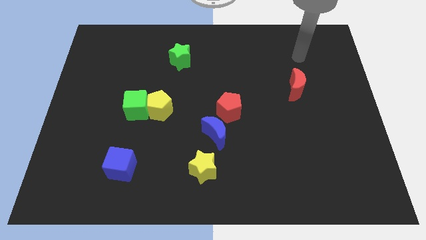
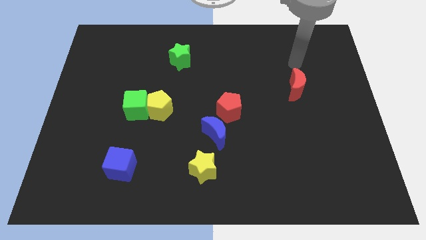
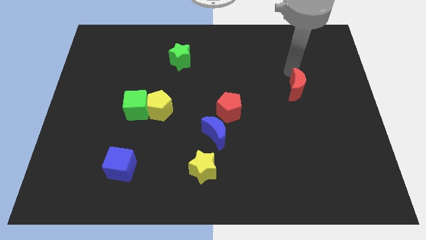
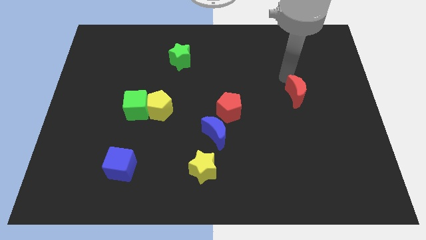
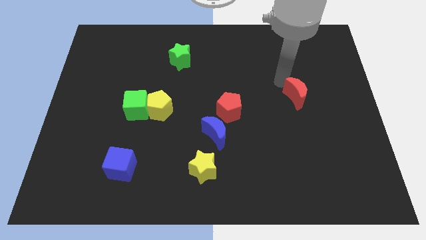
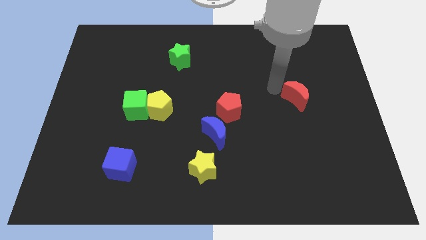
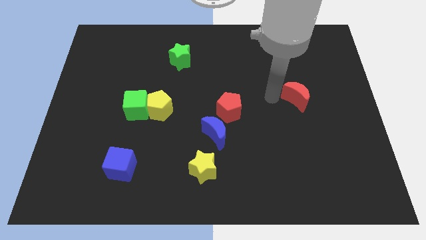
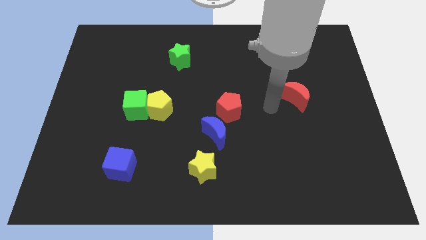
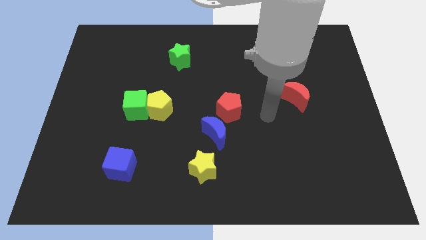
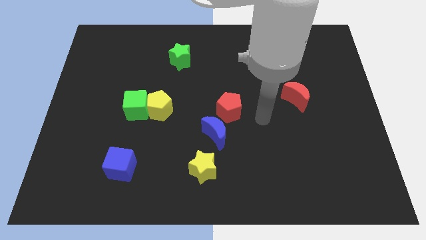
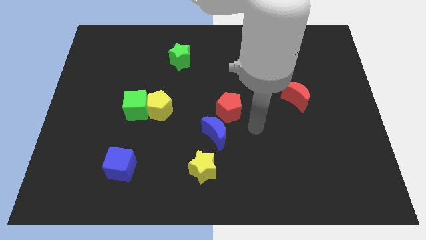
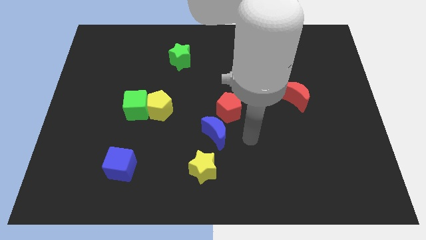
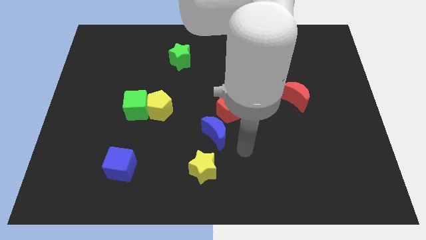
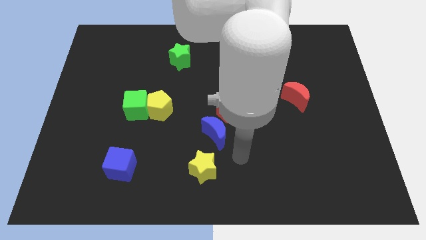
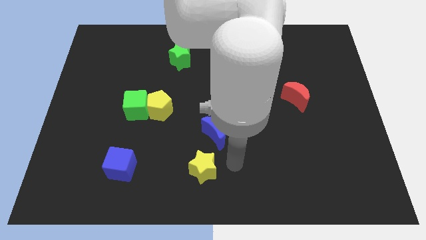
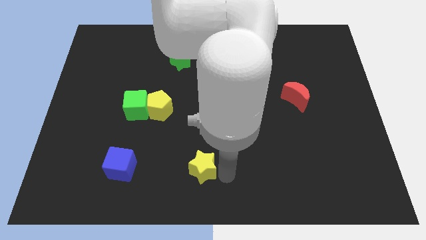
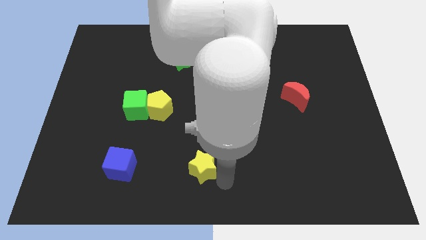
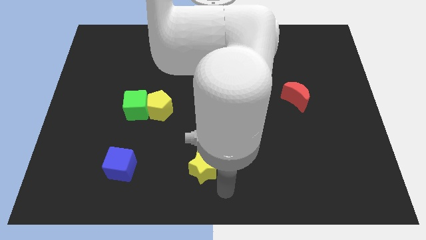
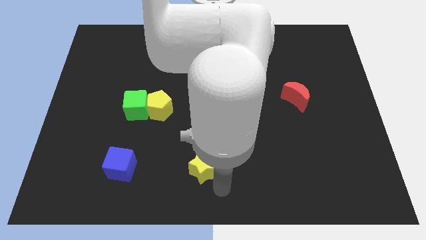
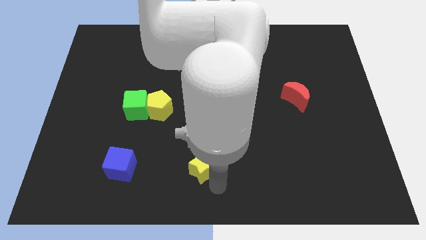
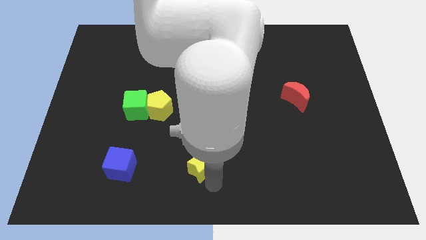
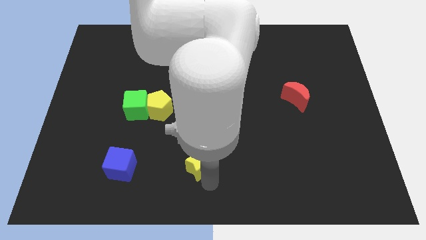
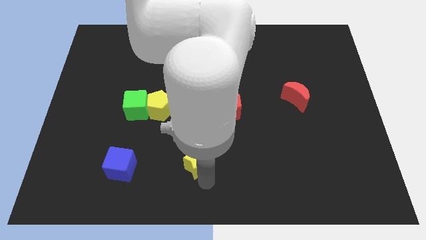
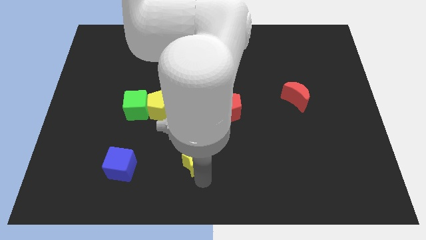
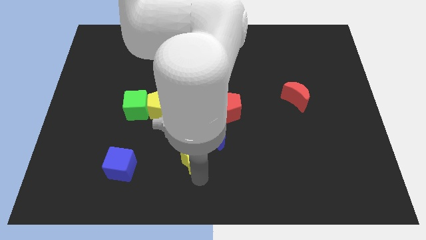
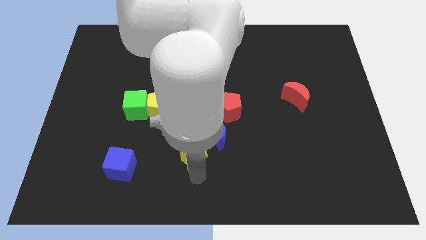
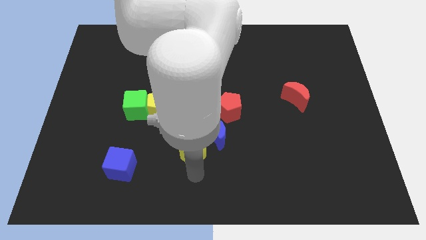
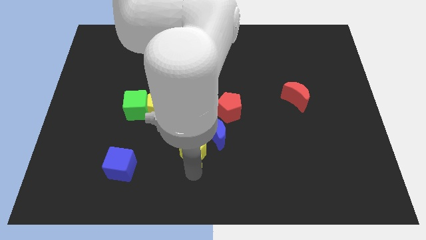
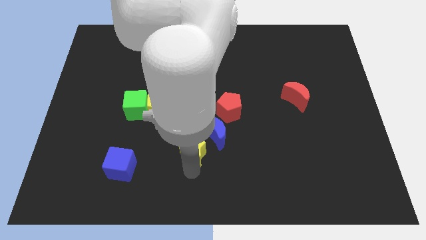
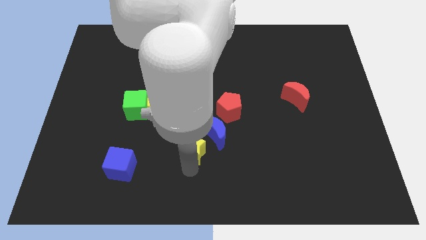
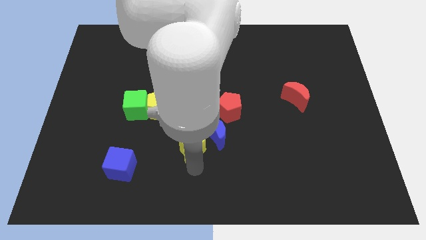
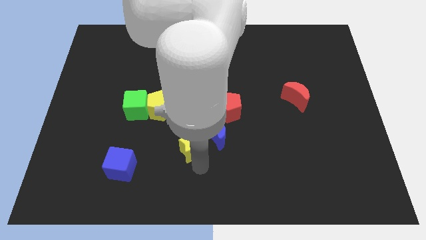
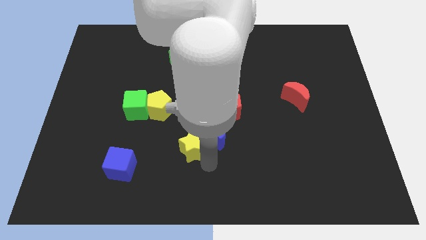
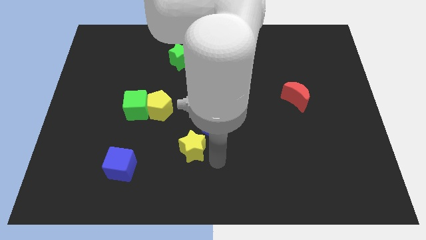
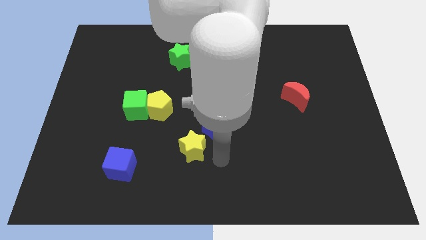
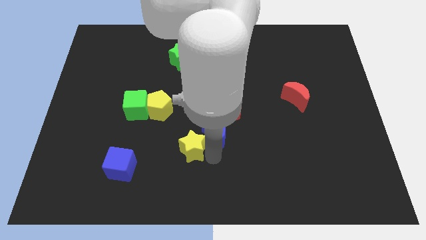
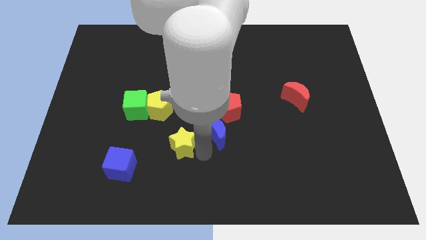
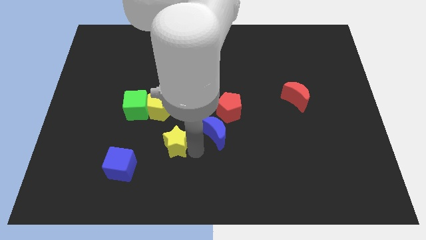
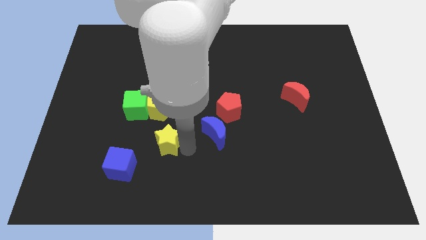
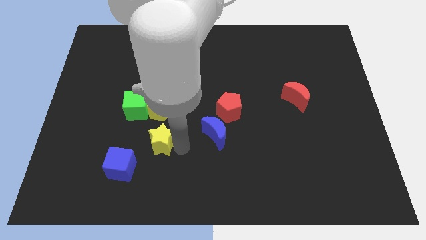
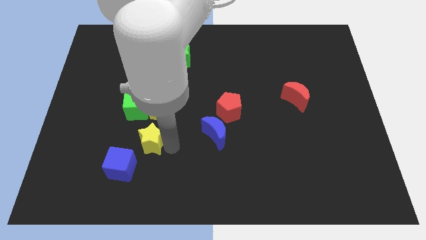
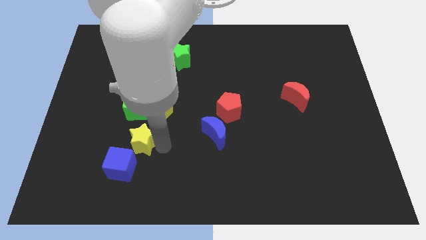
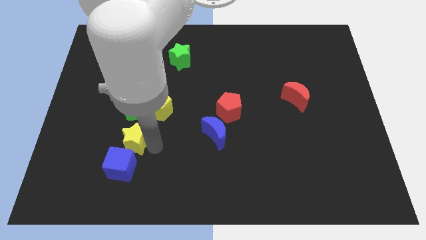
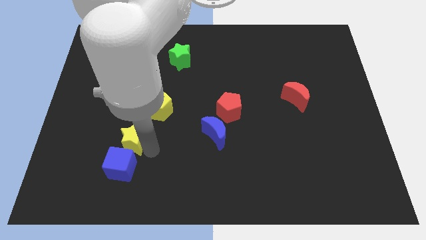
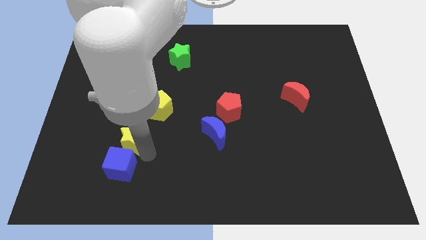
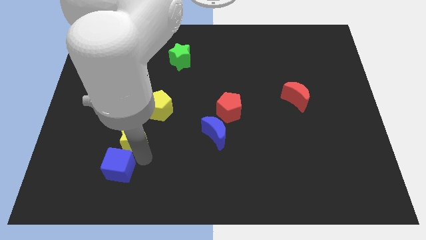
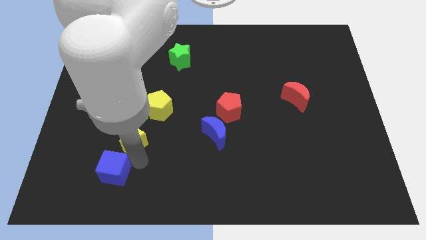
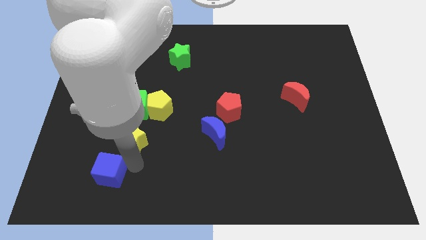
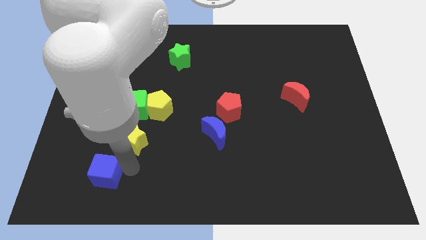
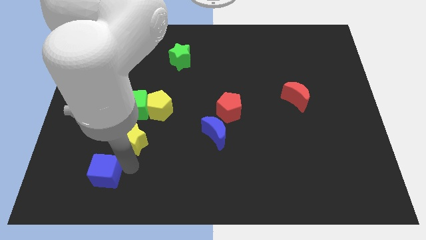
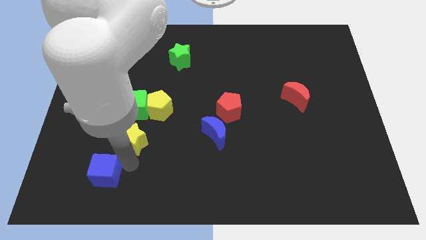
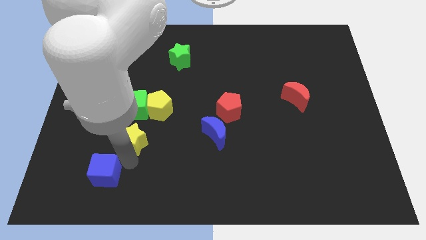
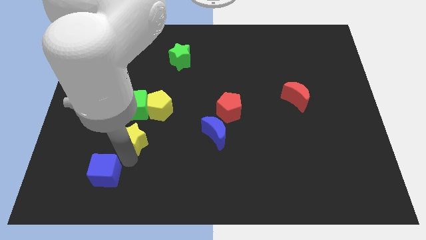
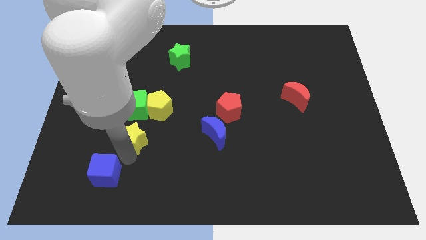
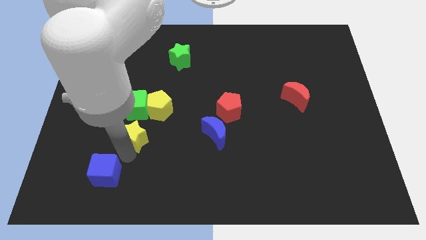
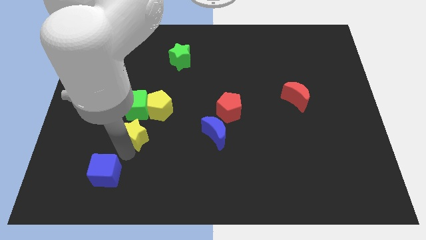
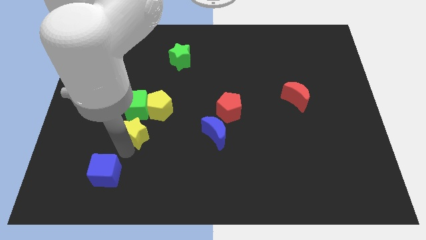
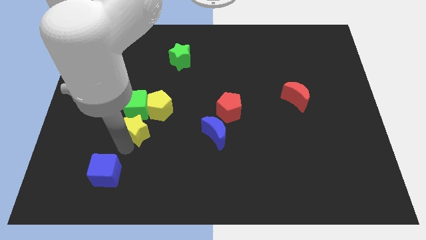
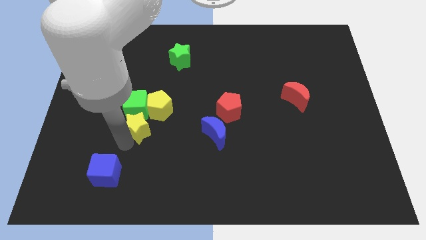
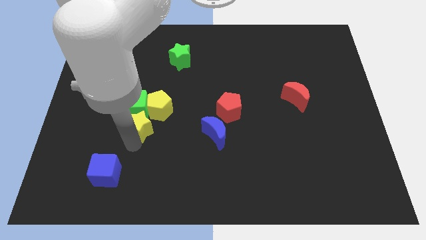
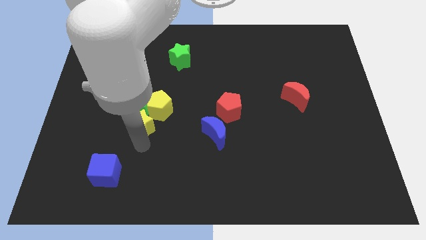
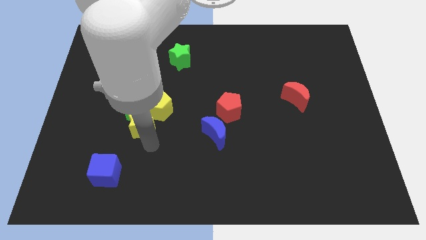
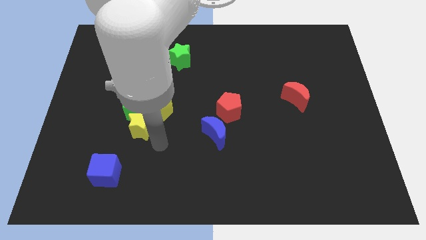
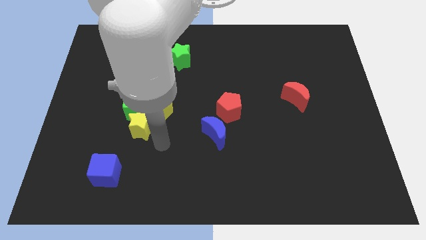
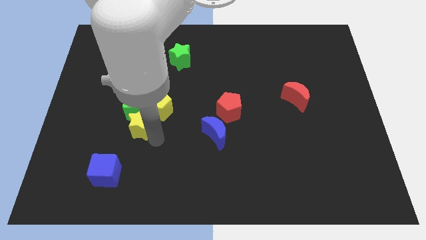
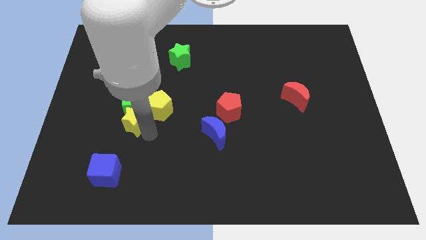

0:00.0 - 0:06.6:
push the yellow star to the left side of the yellow pentagon

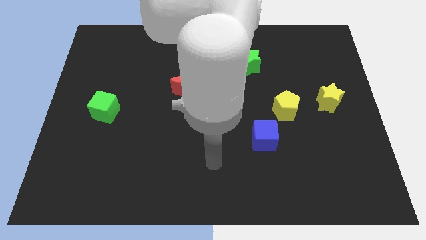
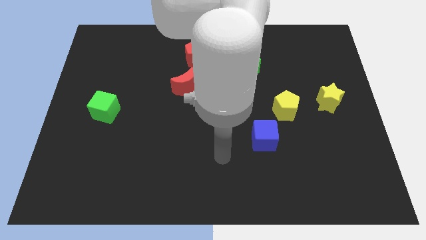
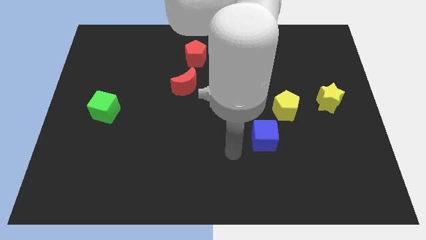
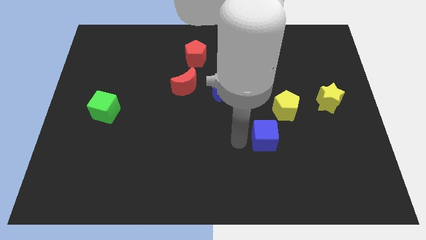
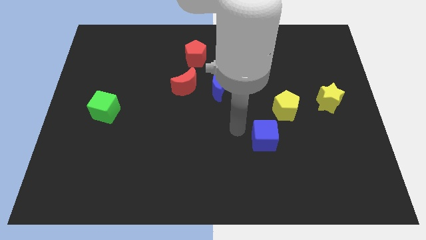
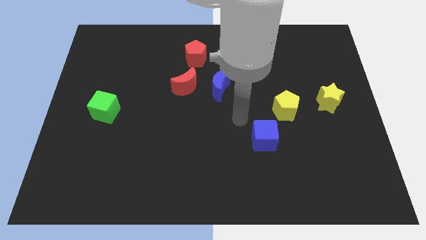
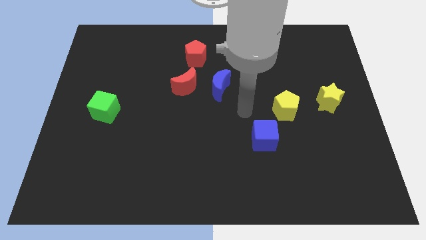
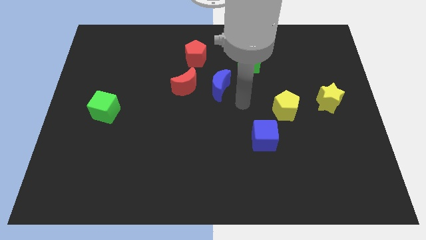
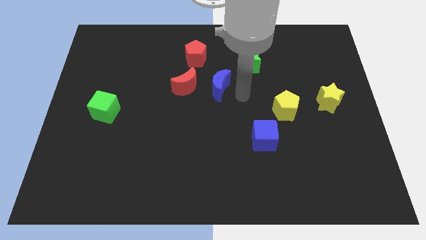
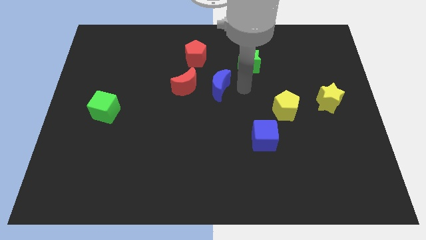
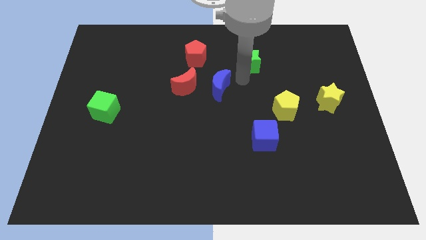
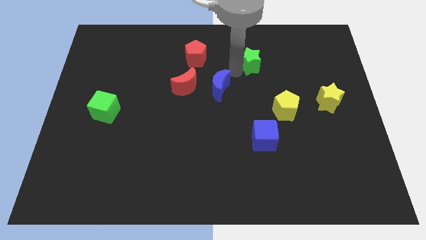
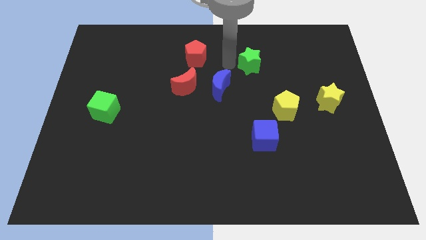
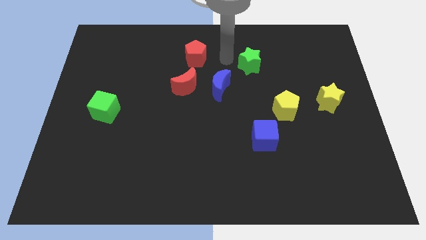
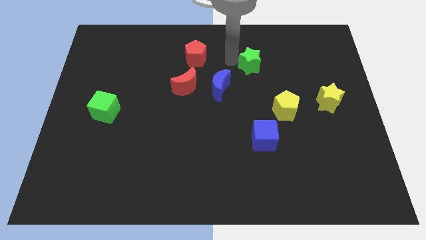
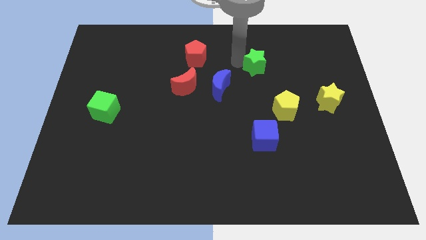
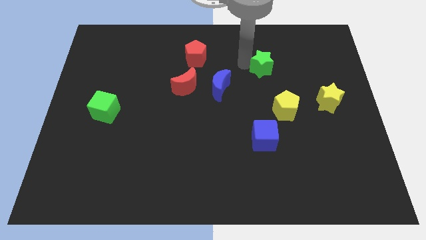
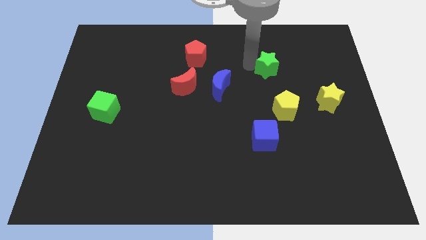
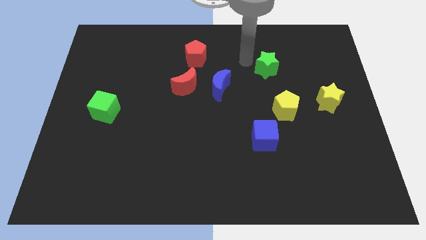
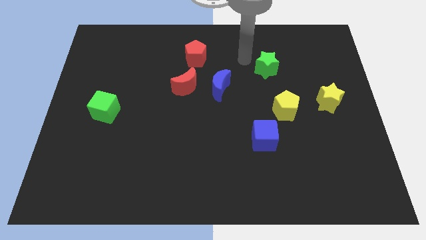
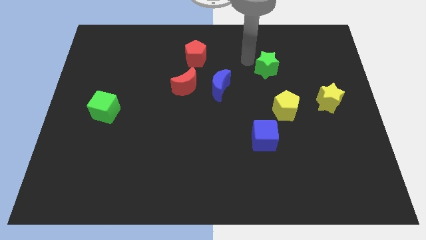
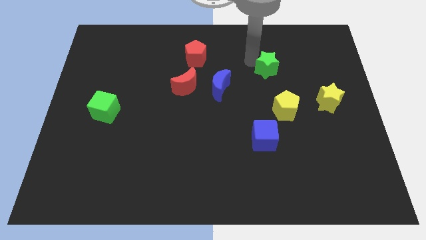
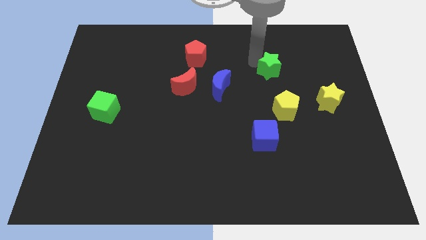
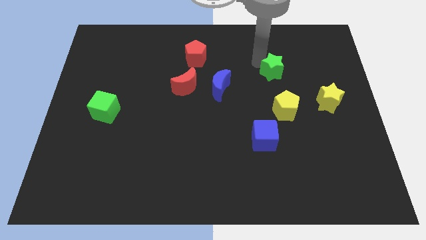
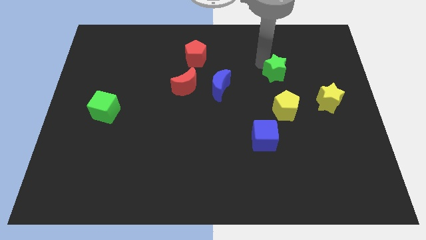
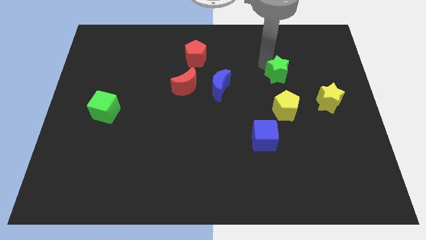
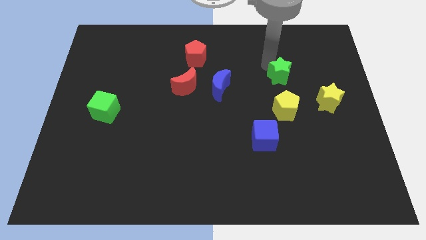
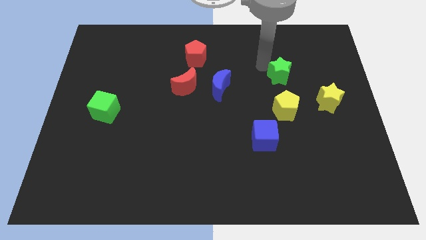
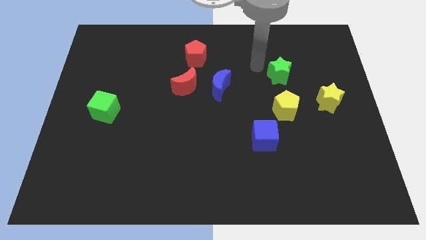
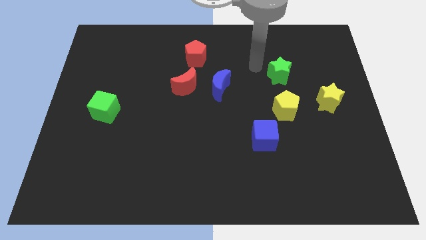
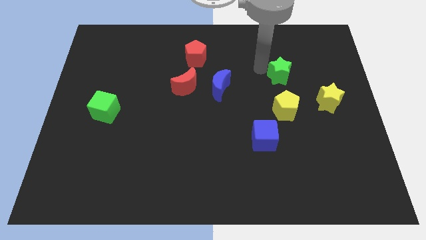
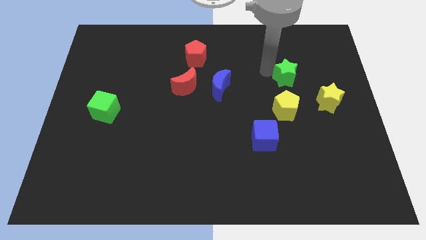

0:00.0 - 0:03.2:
put the green star to the top left side of the yellow star
